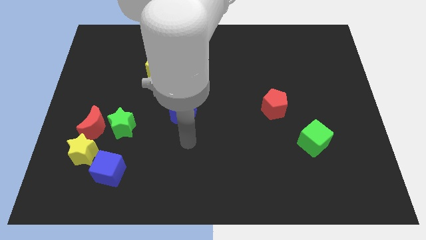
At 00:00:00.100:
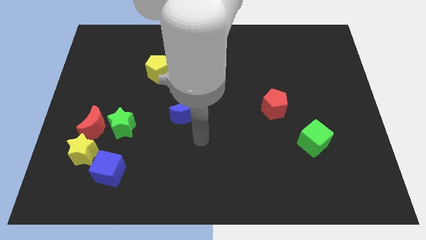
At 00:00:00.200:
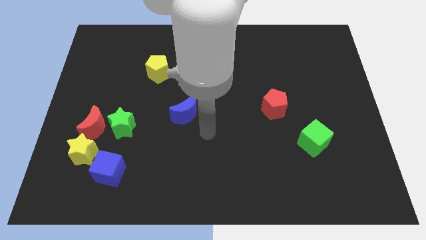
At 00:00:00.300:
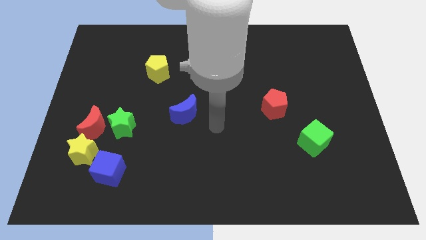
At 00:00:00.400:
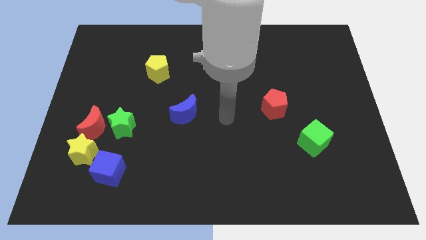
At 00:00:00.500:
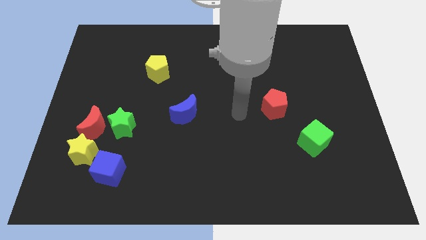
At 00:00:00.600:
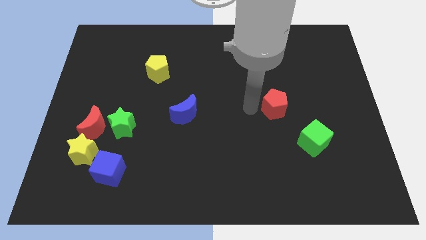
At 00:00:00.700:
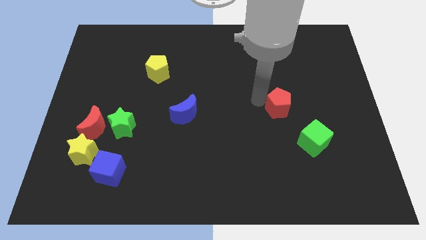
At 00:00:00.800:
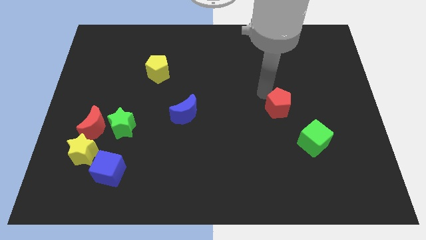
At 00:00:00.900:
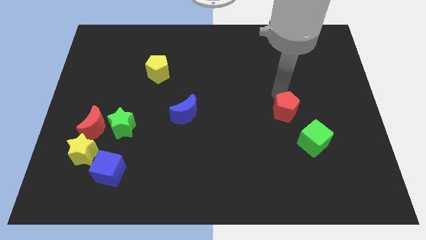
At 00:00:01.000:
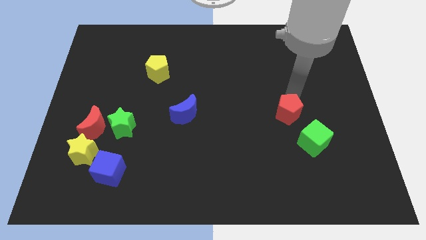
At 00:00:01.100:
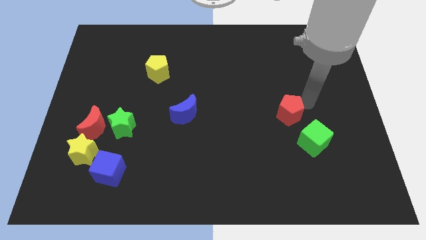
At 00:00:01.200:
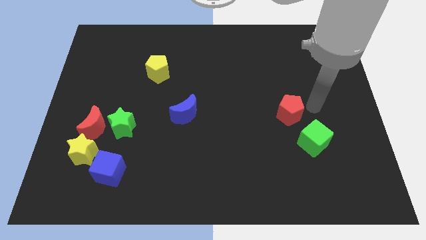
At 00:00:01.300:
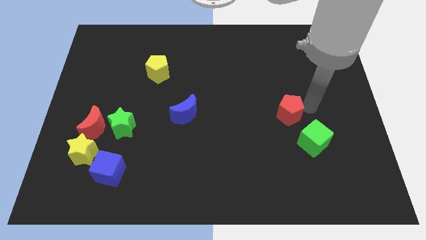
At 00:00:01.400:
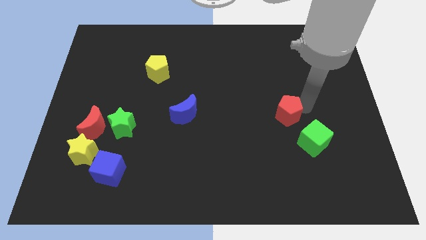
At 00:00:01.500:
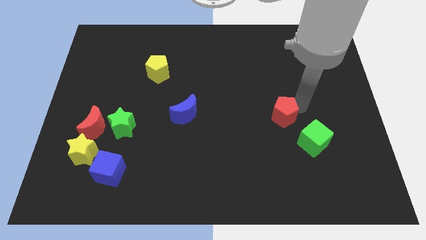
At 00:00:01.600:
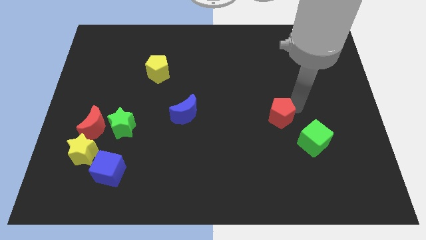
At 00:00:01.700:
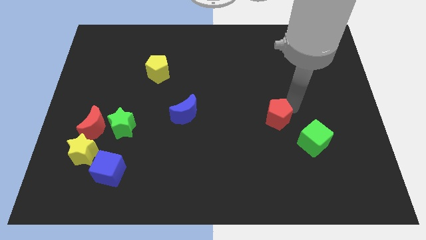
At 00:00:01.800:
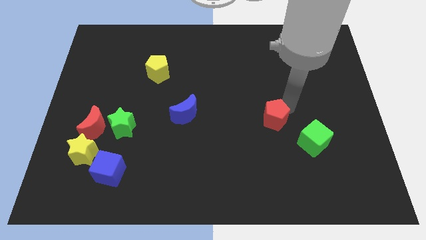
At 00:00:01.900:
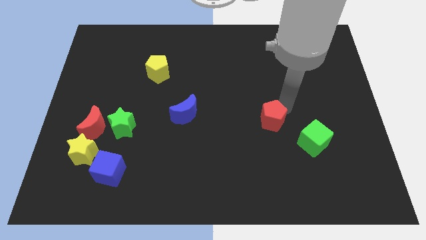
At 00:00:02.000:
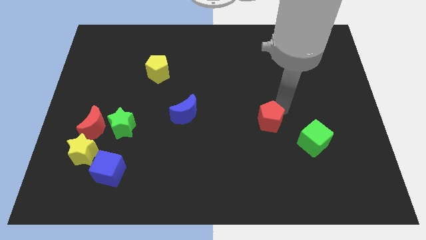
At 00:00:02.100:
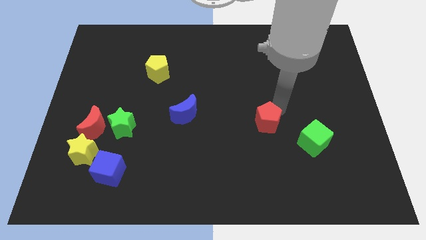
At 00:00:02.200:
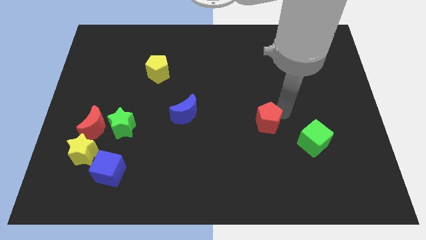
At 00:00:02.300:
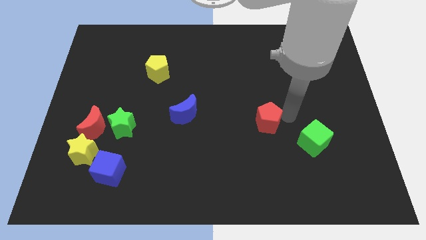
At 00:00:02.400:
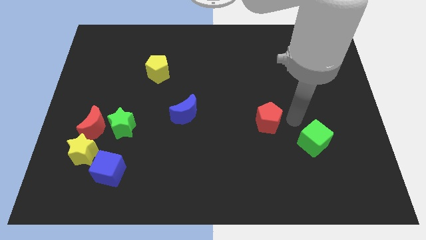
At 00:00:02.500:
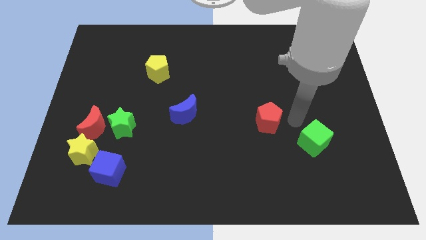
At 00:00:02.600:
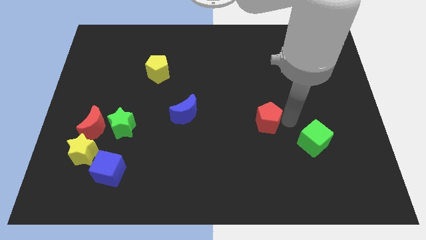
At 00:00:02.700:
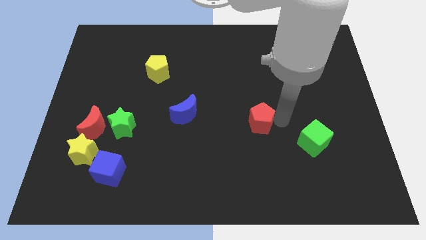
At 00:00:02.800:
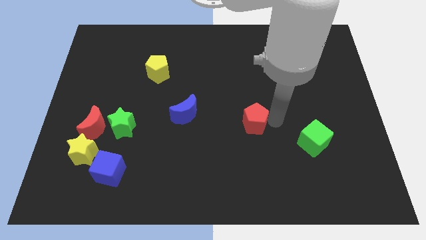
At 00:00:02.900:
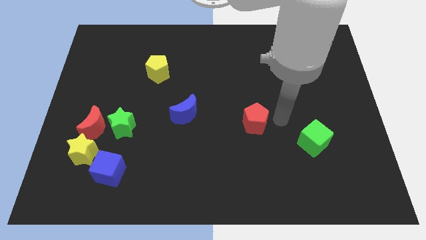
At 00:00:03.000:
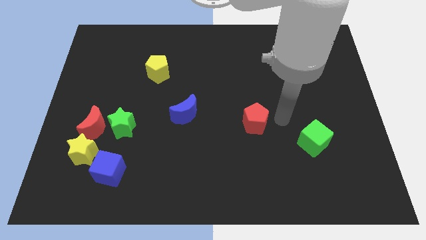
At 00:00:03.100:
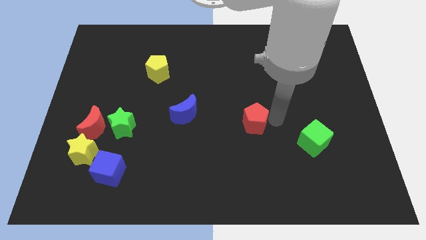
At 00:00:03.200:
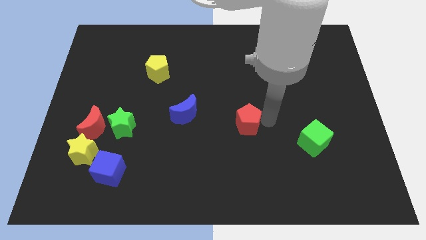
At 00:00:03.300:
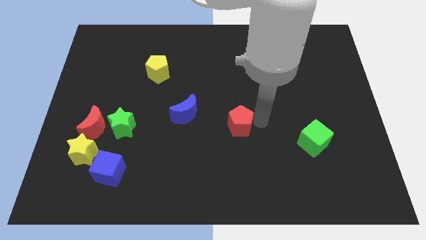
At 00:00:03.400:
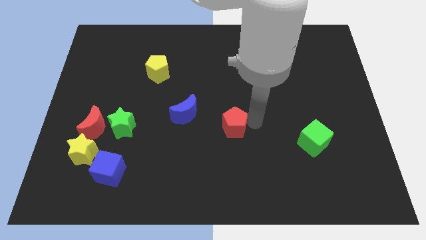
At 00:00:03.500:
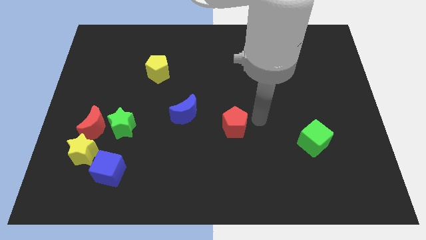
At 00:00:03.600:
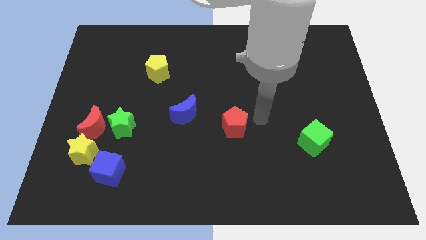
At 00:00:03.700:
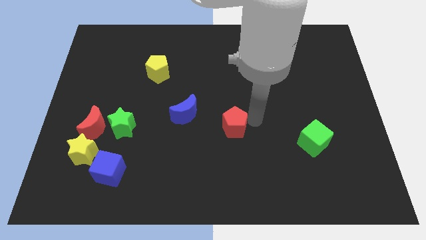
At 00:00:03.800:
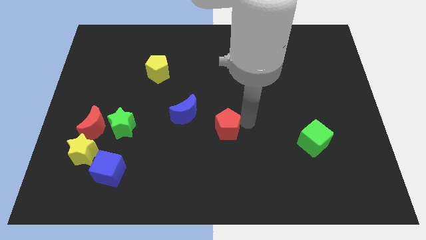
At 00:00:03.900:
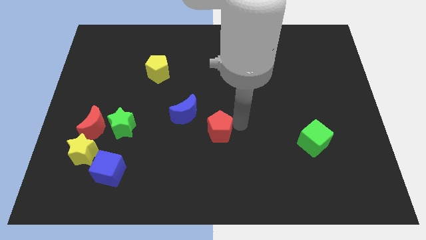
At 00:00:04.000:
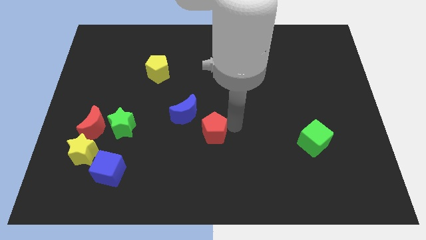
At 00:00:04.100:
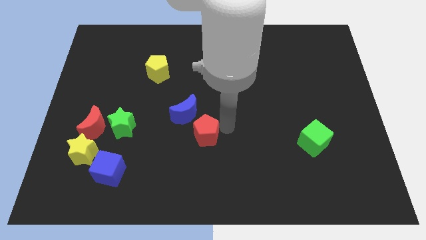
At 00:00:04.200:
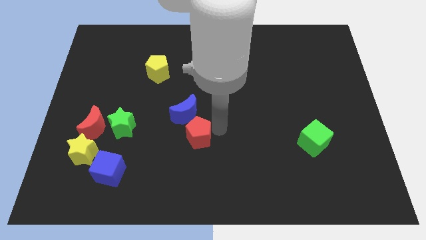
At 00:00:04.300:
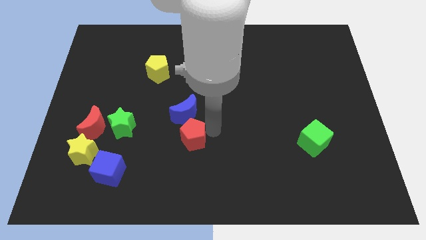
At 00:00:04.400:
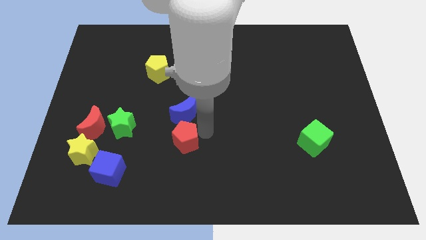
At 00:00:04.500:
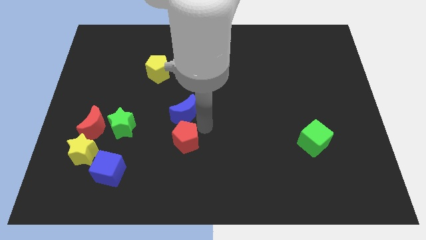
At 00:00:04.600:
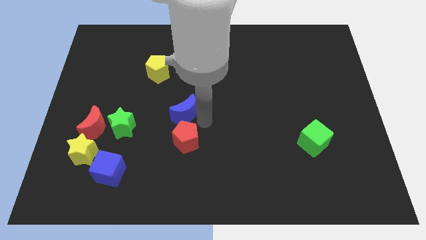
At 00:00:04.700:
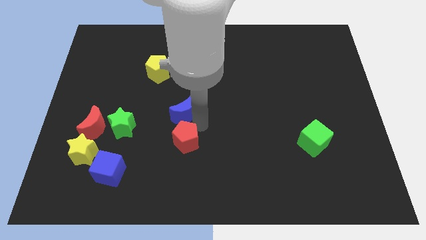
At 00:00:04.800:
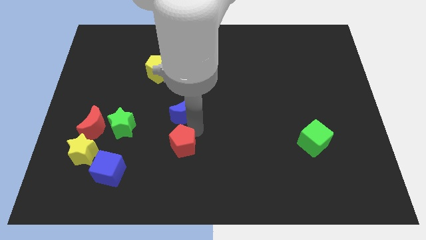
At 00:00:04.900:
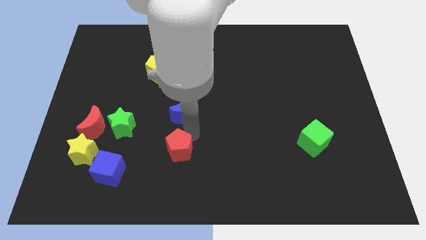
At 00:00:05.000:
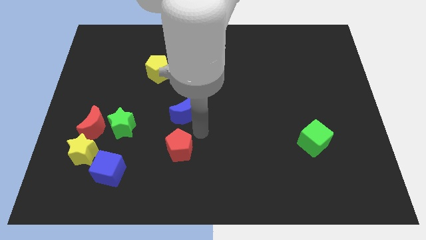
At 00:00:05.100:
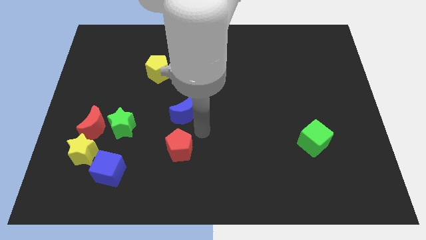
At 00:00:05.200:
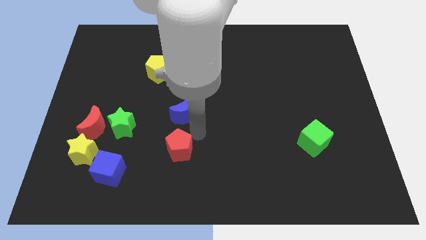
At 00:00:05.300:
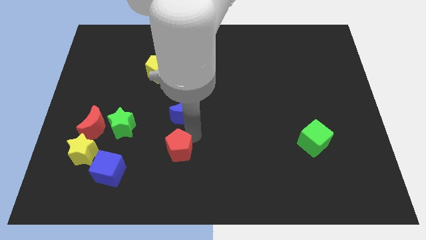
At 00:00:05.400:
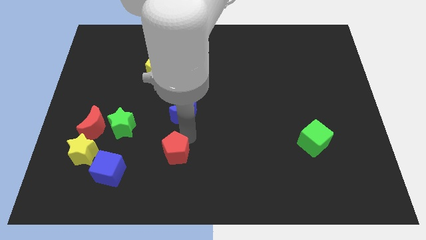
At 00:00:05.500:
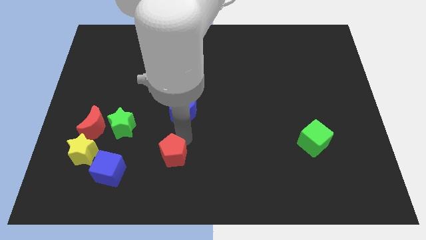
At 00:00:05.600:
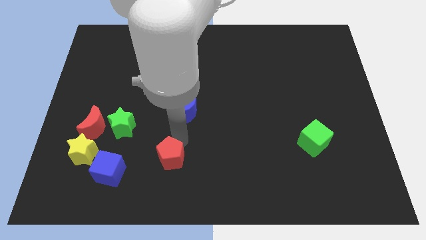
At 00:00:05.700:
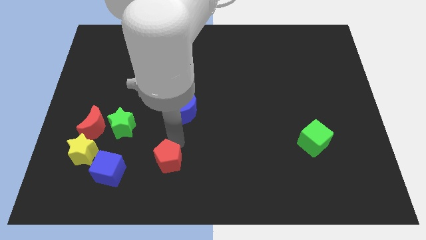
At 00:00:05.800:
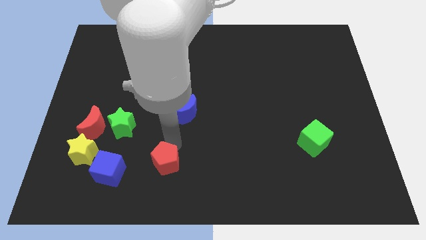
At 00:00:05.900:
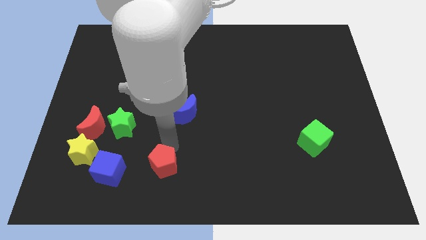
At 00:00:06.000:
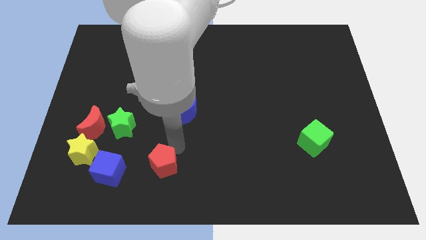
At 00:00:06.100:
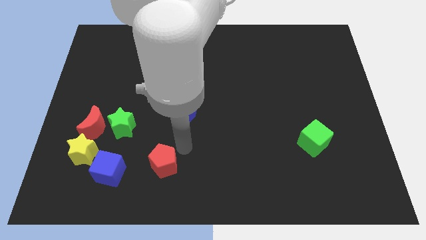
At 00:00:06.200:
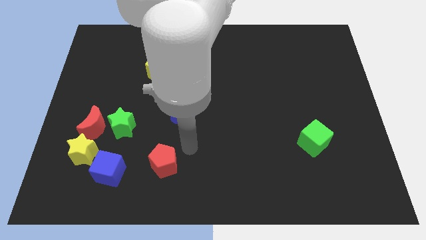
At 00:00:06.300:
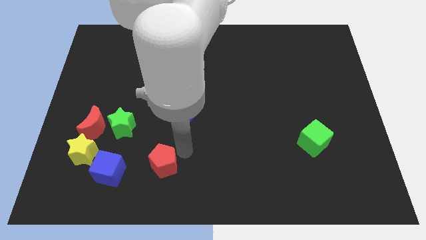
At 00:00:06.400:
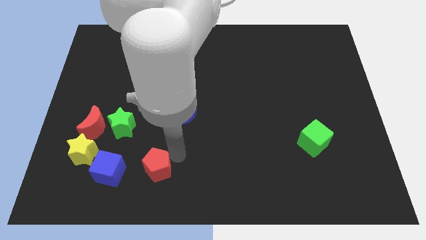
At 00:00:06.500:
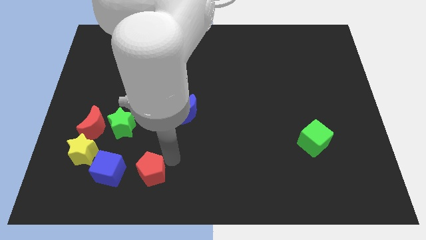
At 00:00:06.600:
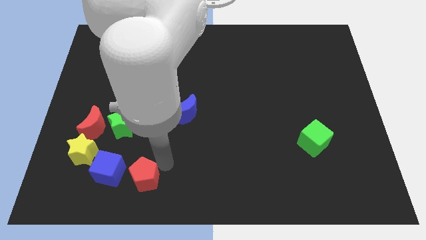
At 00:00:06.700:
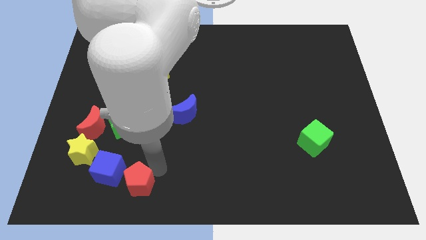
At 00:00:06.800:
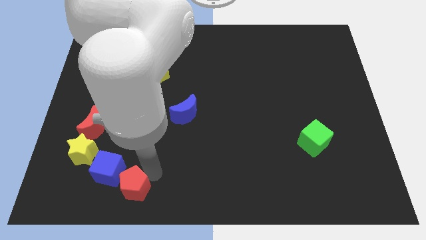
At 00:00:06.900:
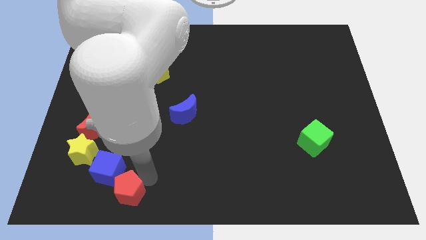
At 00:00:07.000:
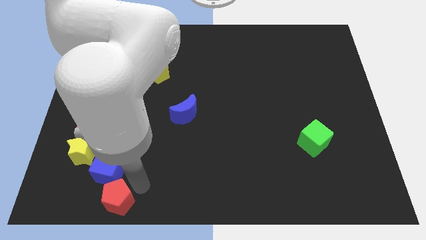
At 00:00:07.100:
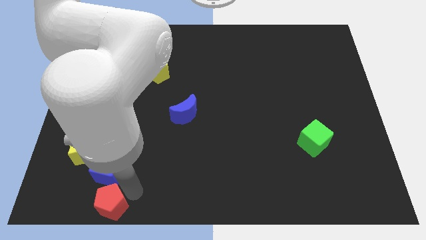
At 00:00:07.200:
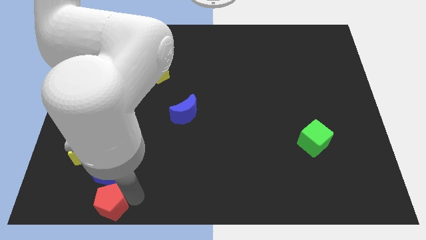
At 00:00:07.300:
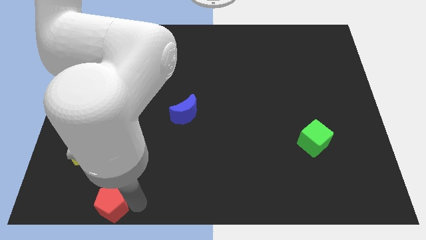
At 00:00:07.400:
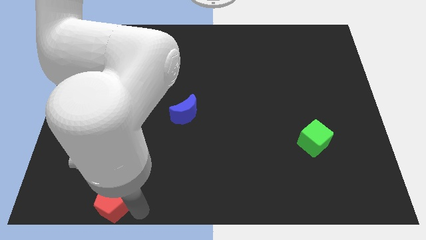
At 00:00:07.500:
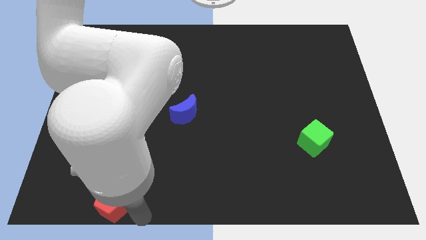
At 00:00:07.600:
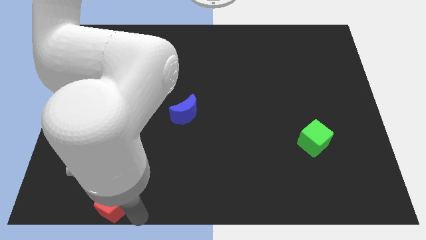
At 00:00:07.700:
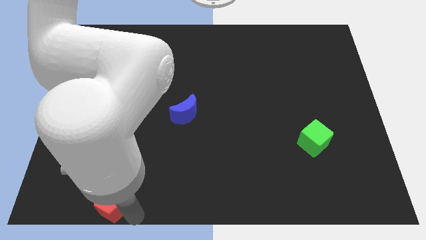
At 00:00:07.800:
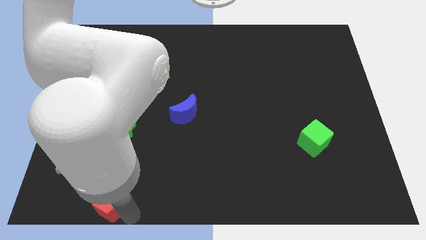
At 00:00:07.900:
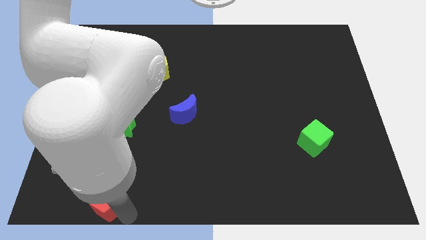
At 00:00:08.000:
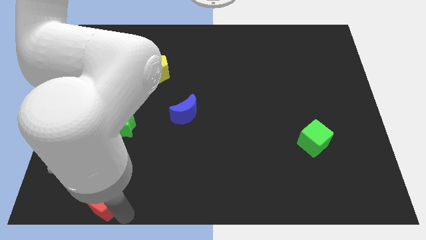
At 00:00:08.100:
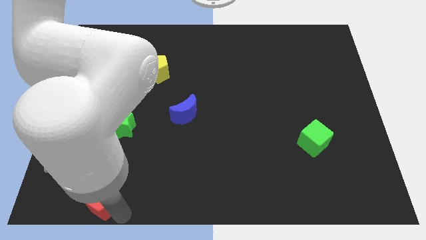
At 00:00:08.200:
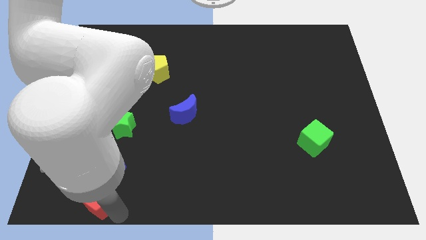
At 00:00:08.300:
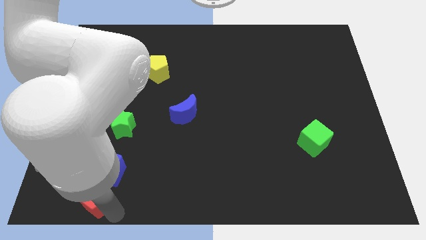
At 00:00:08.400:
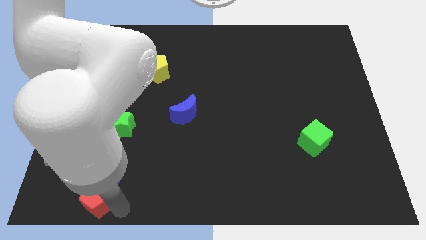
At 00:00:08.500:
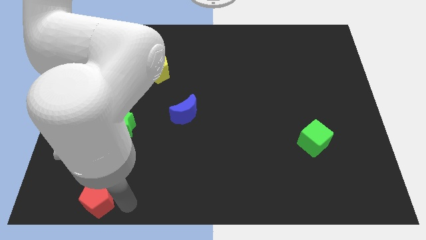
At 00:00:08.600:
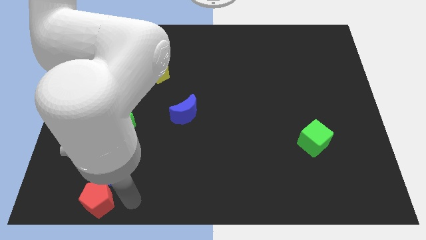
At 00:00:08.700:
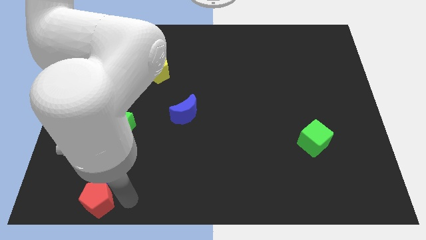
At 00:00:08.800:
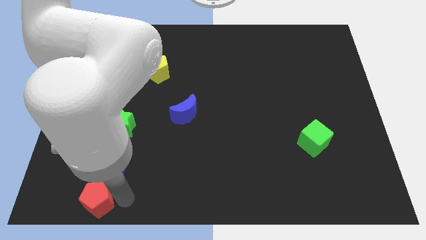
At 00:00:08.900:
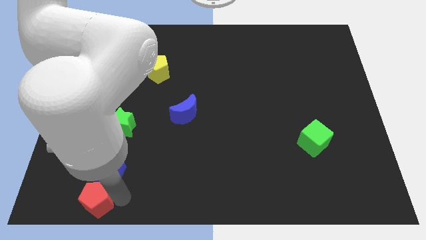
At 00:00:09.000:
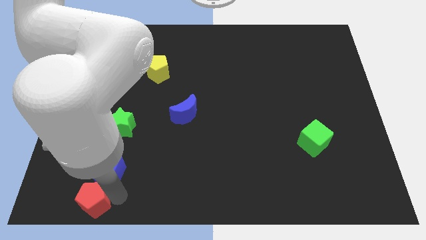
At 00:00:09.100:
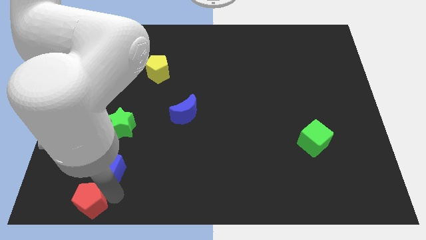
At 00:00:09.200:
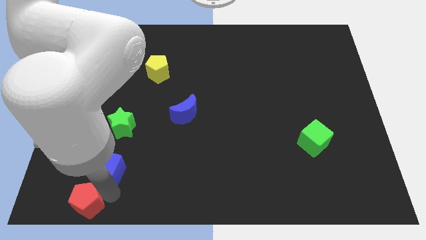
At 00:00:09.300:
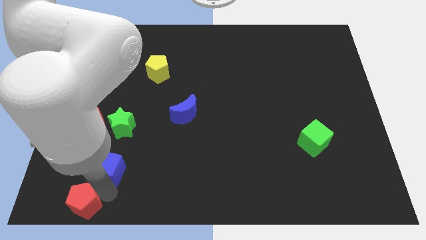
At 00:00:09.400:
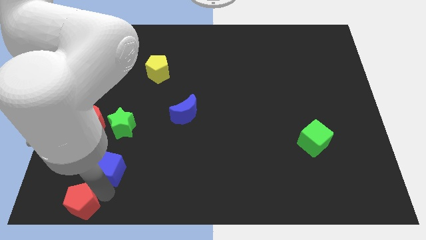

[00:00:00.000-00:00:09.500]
put the red pentagon to the lower left corner
